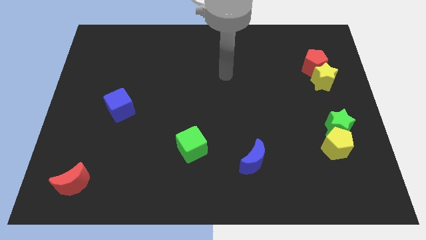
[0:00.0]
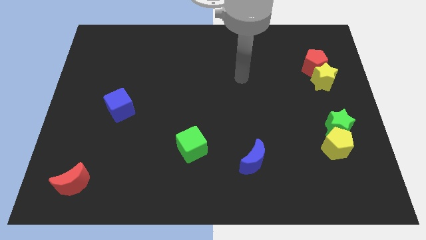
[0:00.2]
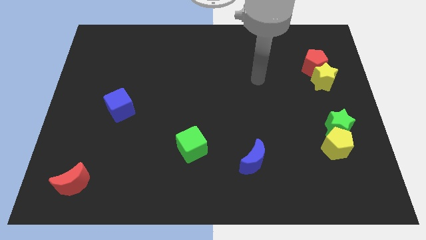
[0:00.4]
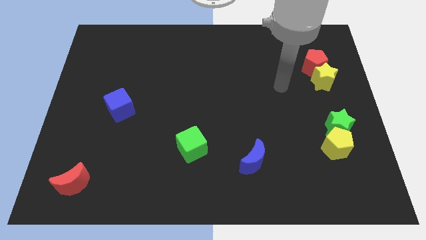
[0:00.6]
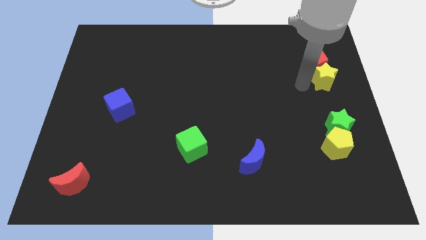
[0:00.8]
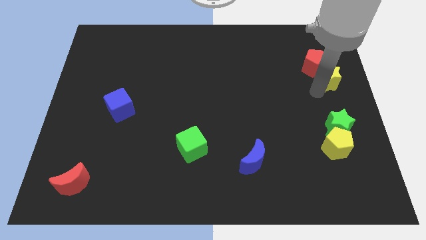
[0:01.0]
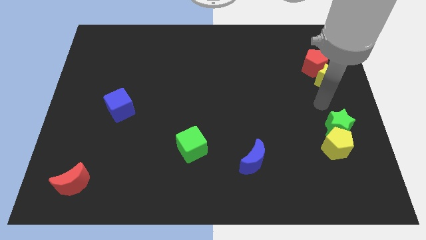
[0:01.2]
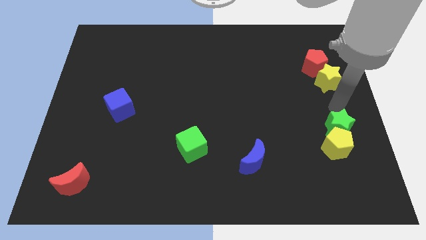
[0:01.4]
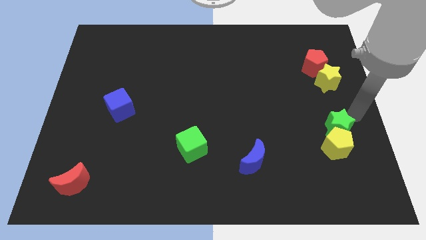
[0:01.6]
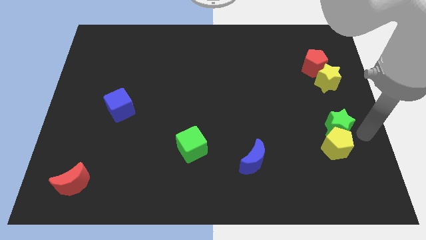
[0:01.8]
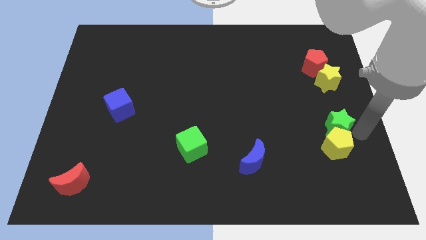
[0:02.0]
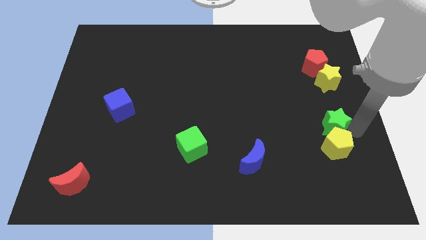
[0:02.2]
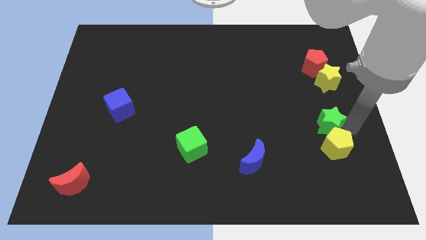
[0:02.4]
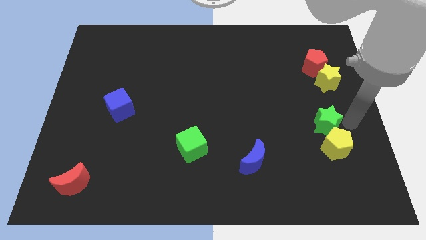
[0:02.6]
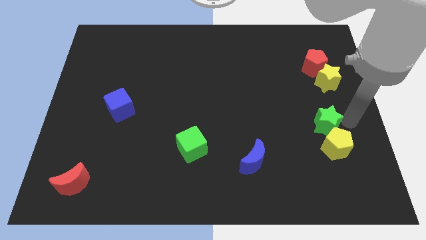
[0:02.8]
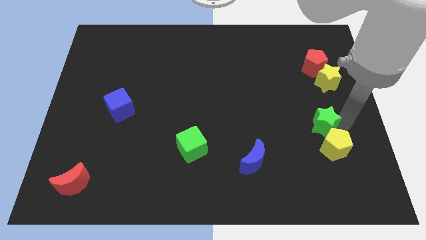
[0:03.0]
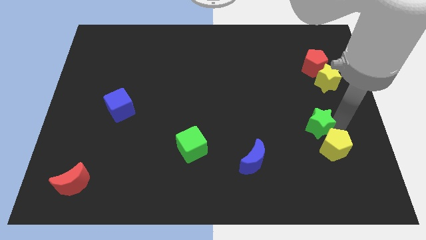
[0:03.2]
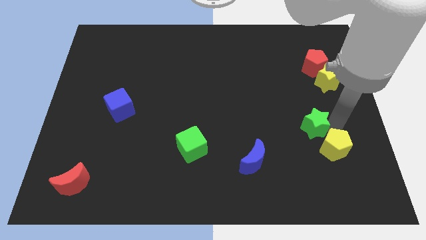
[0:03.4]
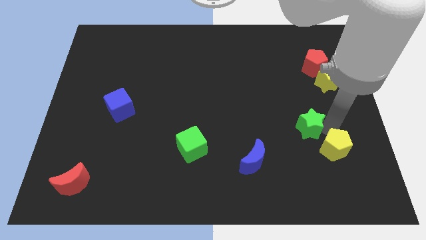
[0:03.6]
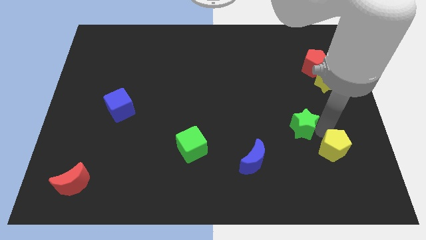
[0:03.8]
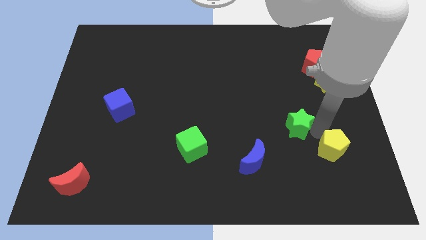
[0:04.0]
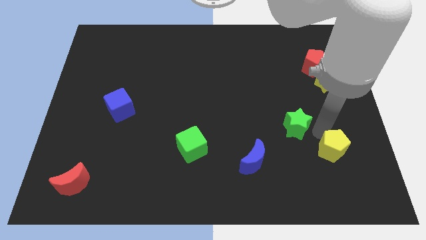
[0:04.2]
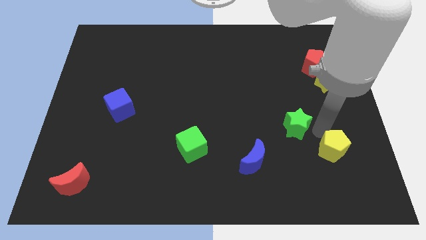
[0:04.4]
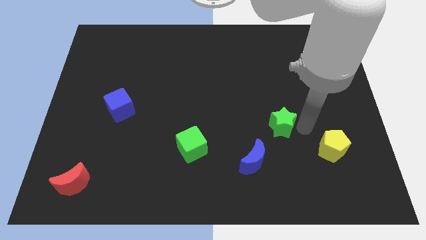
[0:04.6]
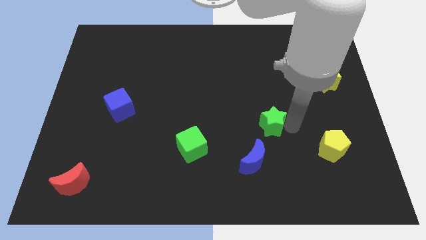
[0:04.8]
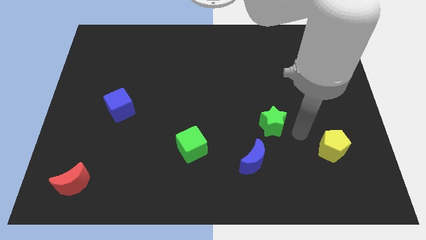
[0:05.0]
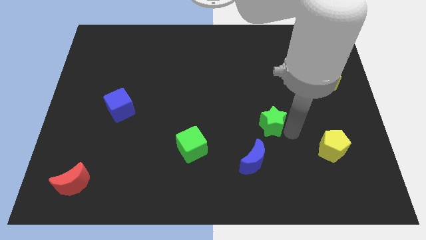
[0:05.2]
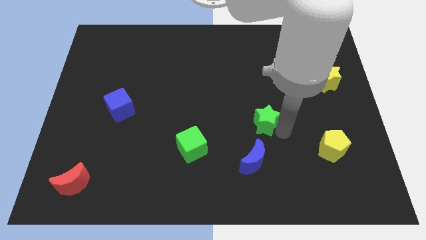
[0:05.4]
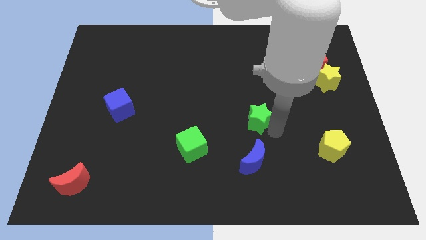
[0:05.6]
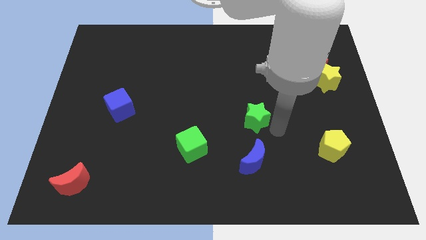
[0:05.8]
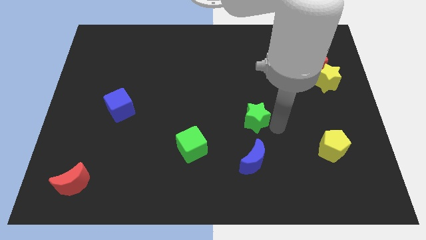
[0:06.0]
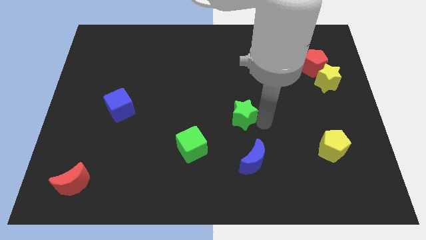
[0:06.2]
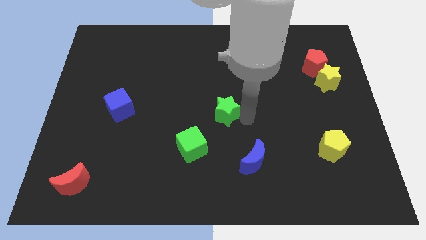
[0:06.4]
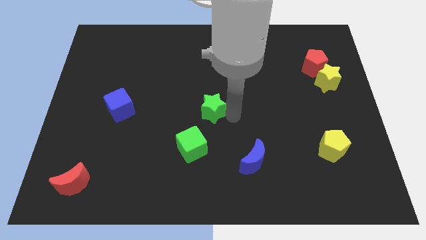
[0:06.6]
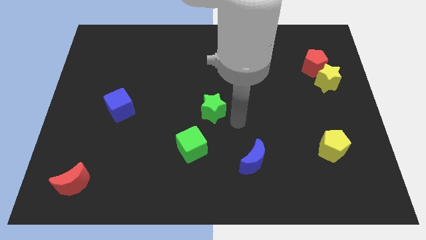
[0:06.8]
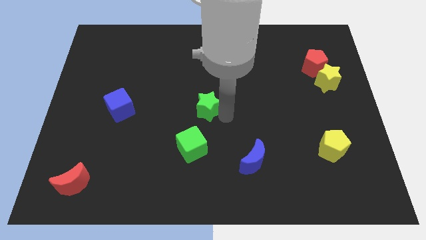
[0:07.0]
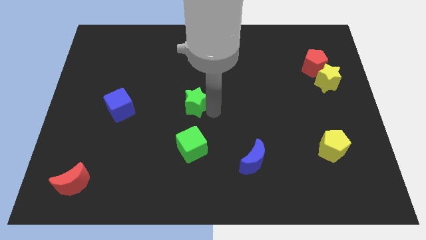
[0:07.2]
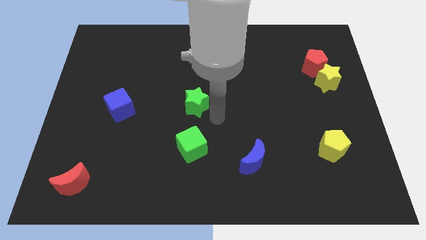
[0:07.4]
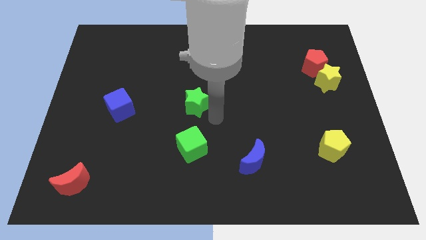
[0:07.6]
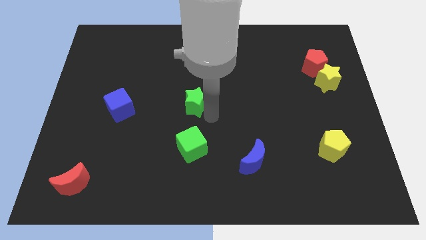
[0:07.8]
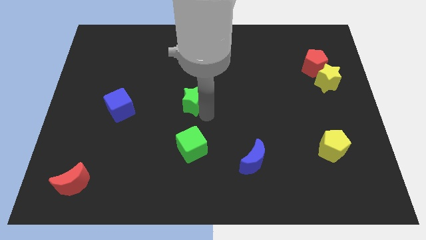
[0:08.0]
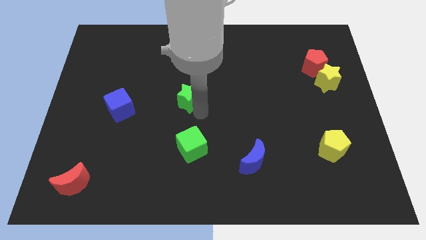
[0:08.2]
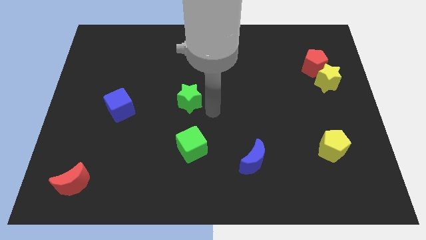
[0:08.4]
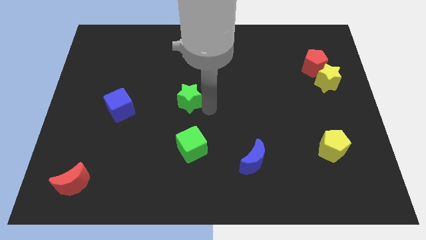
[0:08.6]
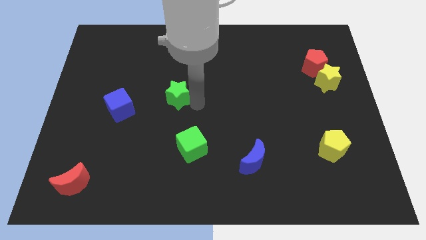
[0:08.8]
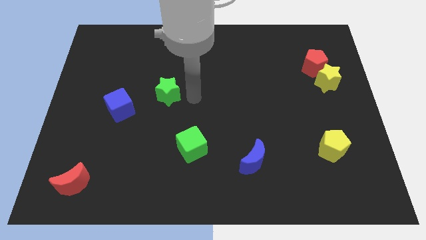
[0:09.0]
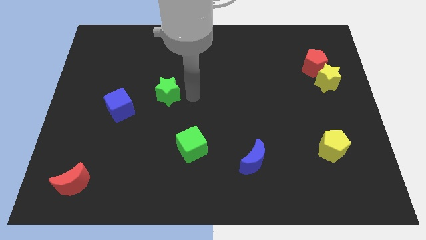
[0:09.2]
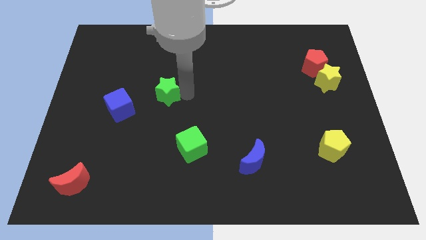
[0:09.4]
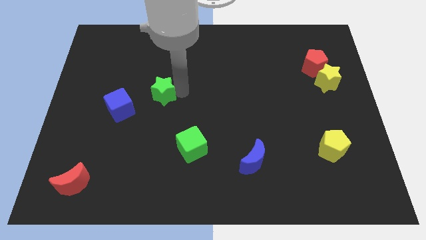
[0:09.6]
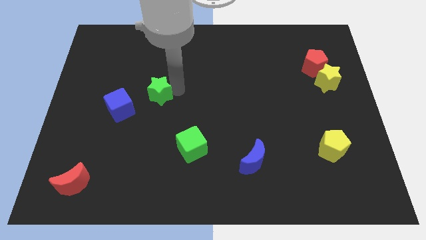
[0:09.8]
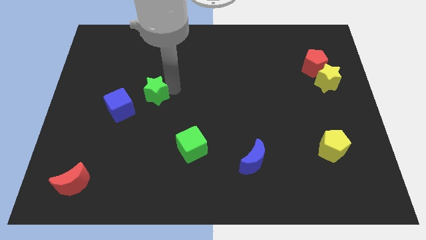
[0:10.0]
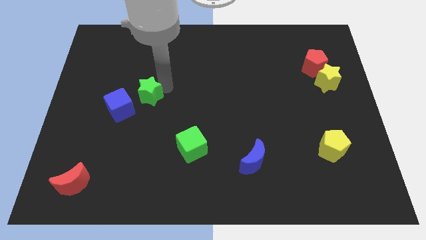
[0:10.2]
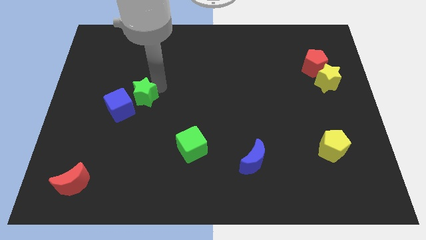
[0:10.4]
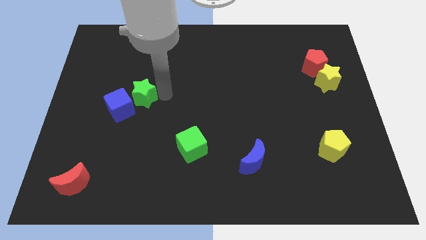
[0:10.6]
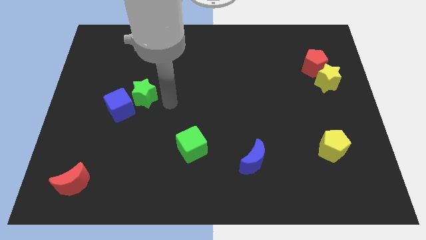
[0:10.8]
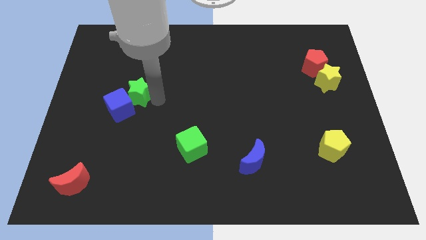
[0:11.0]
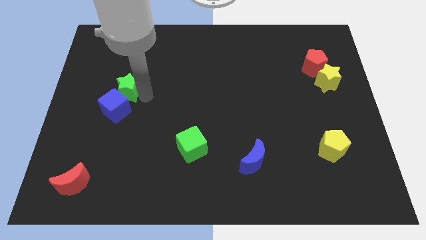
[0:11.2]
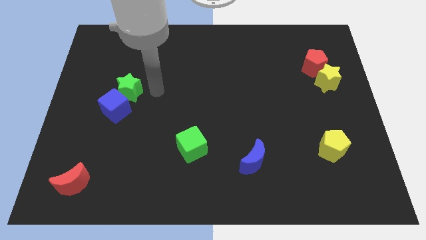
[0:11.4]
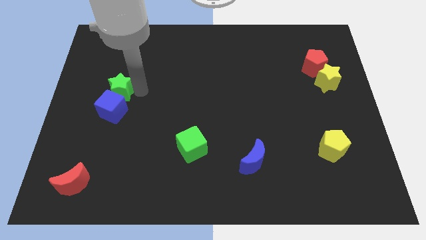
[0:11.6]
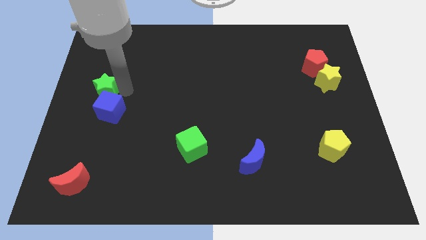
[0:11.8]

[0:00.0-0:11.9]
push the green star to the center left
